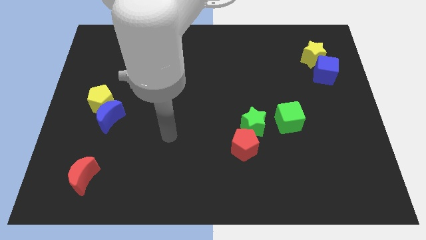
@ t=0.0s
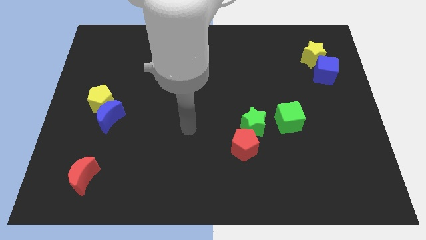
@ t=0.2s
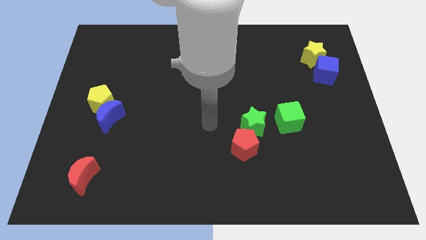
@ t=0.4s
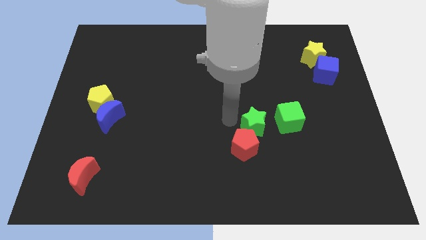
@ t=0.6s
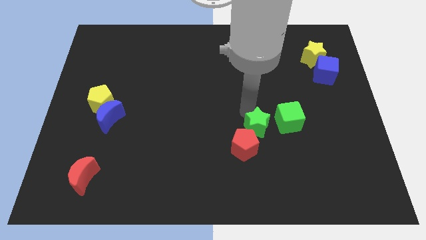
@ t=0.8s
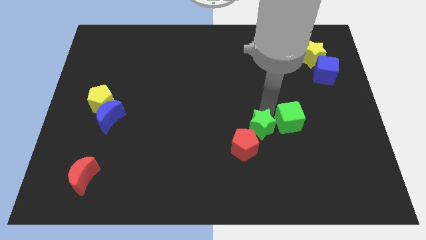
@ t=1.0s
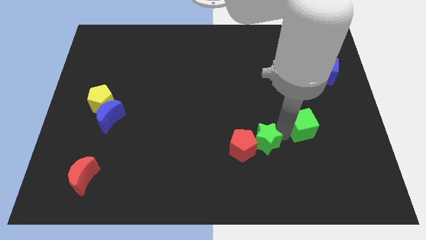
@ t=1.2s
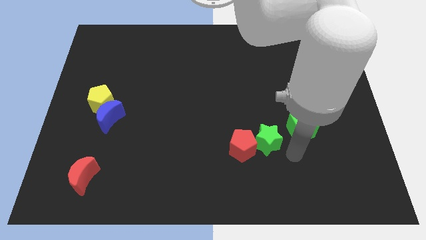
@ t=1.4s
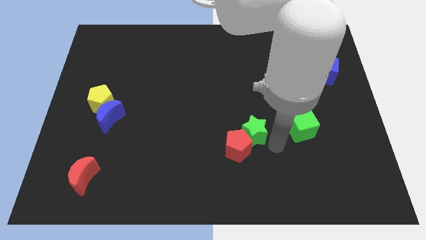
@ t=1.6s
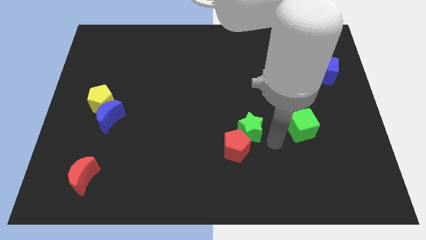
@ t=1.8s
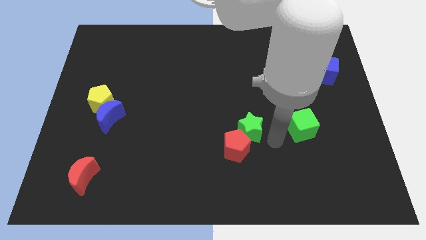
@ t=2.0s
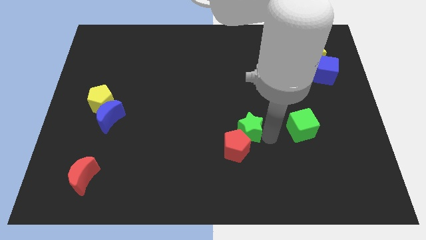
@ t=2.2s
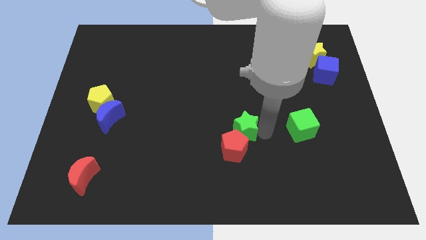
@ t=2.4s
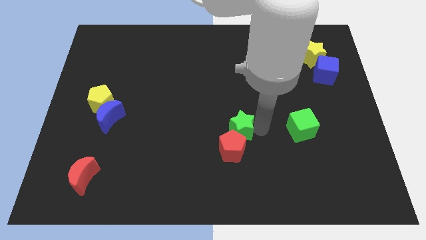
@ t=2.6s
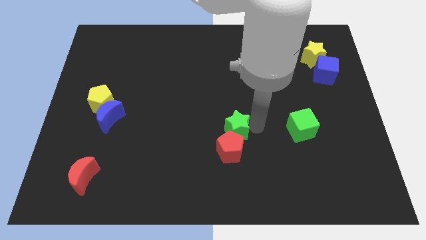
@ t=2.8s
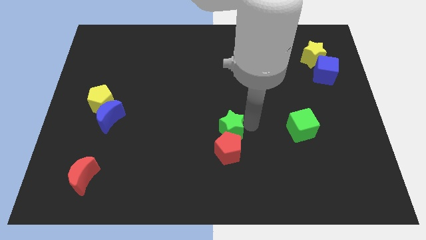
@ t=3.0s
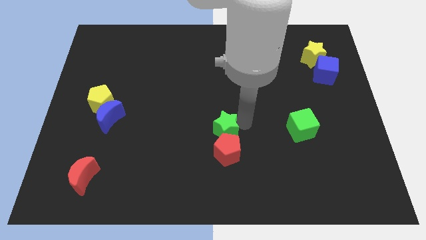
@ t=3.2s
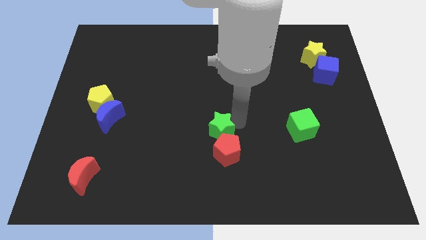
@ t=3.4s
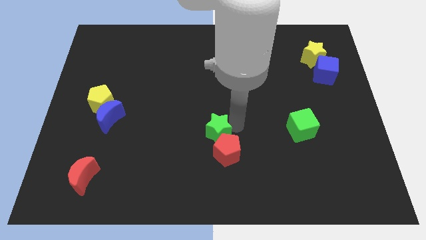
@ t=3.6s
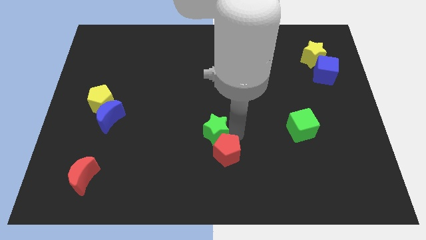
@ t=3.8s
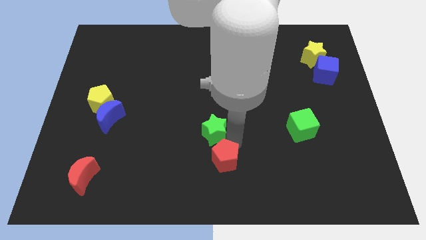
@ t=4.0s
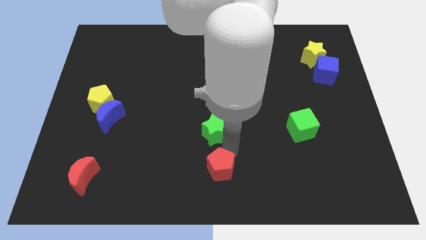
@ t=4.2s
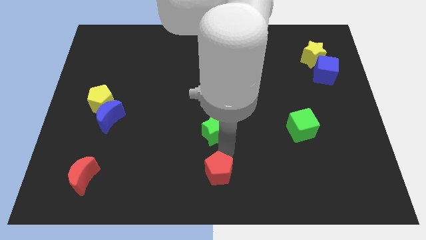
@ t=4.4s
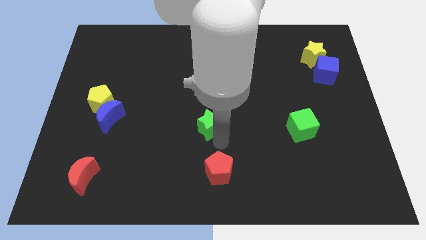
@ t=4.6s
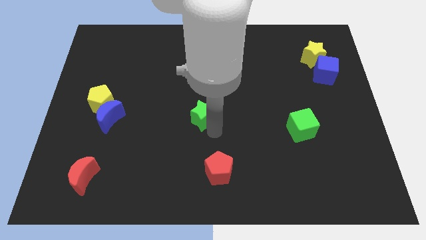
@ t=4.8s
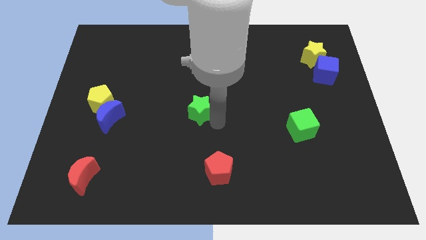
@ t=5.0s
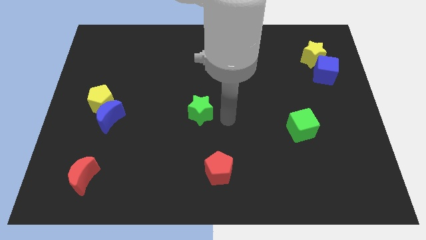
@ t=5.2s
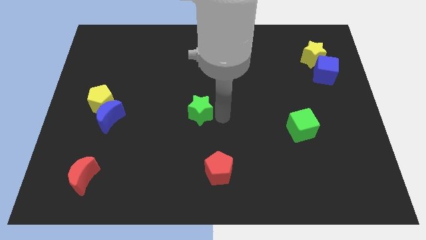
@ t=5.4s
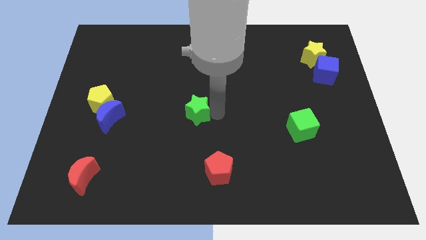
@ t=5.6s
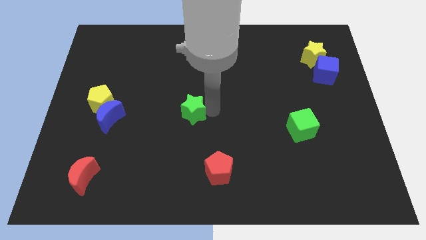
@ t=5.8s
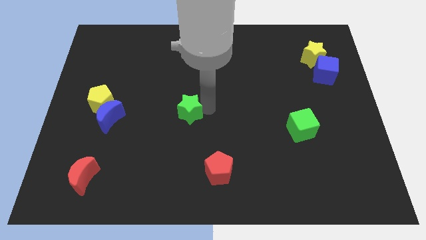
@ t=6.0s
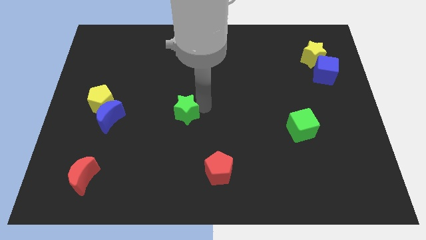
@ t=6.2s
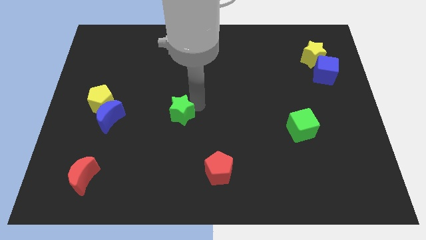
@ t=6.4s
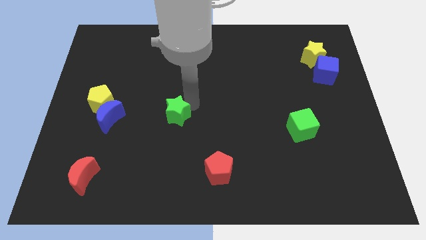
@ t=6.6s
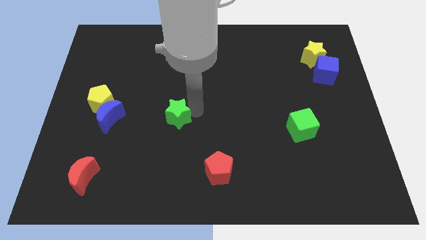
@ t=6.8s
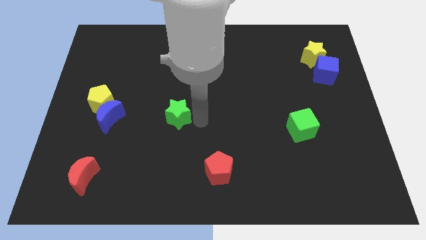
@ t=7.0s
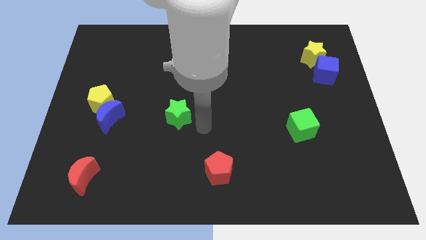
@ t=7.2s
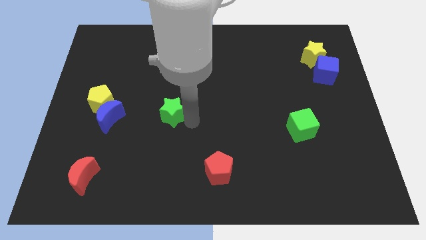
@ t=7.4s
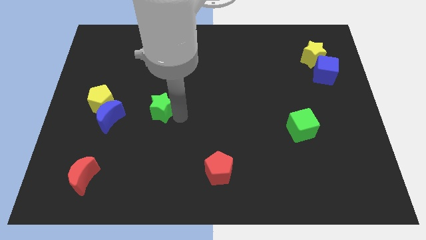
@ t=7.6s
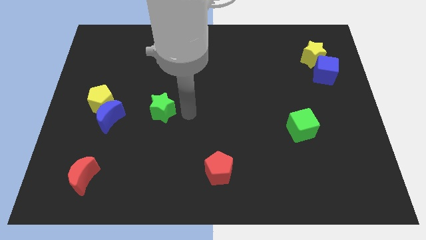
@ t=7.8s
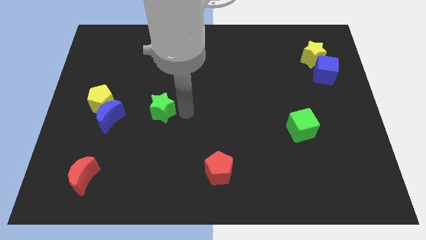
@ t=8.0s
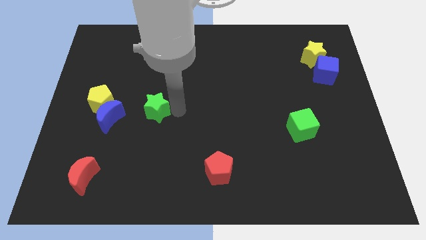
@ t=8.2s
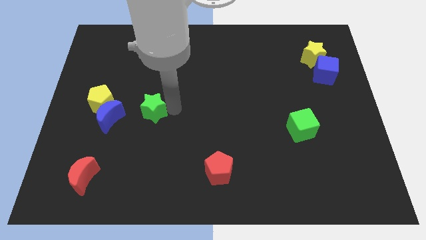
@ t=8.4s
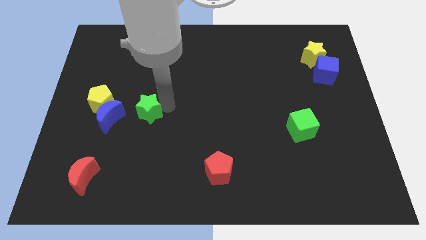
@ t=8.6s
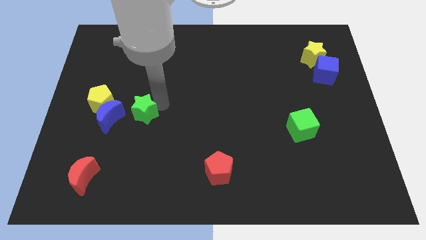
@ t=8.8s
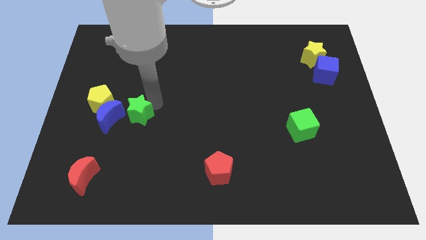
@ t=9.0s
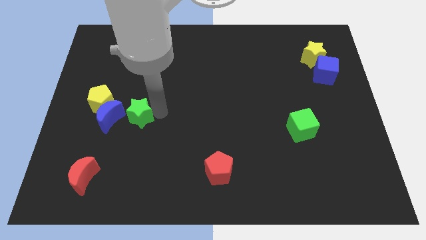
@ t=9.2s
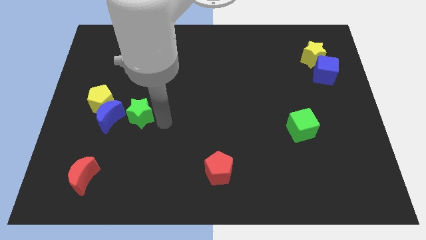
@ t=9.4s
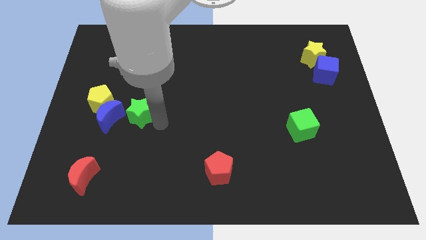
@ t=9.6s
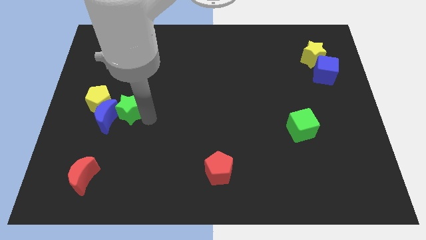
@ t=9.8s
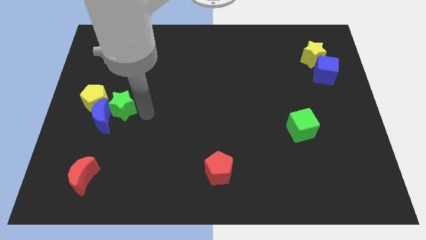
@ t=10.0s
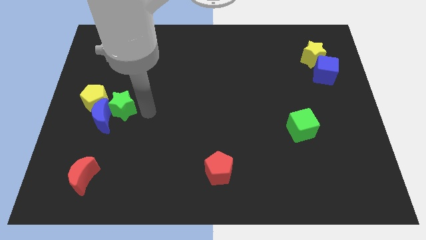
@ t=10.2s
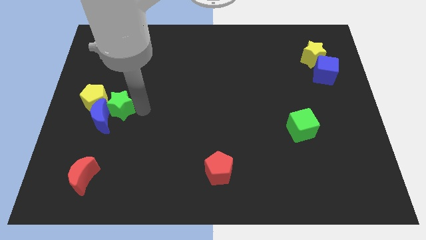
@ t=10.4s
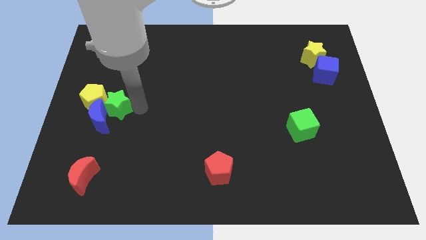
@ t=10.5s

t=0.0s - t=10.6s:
slide the green star close to the yellow pentagon

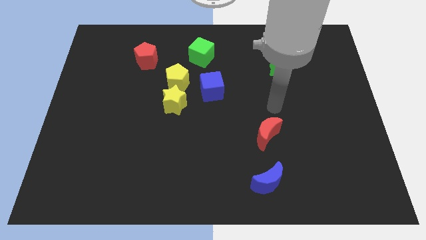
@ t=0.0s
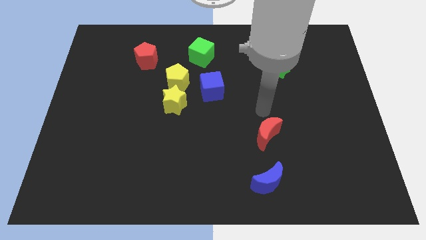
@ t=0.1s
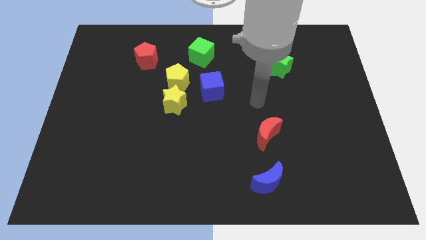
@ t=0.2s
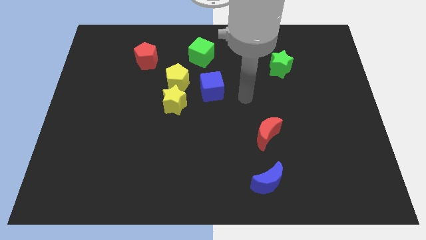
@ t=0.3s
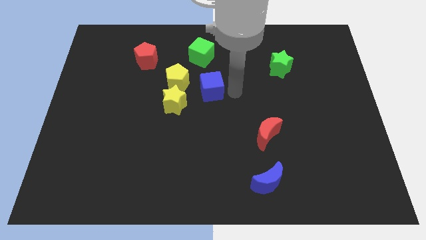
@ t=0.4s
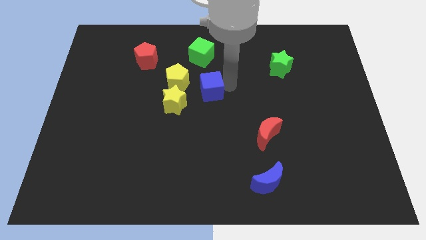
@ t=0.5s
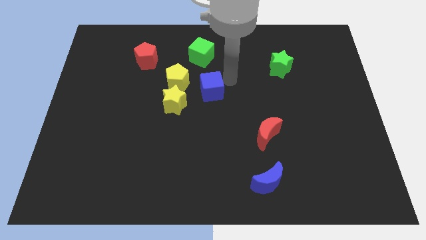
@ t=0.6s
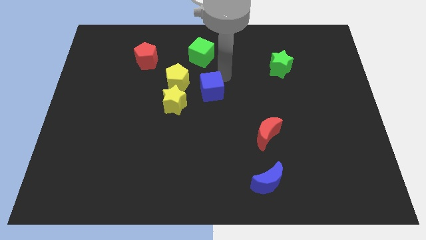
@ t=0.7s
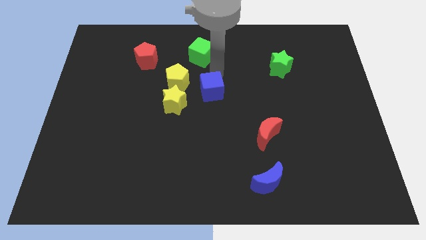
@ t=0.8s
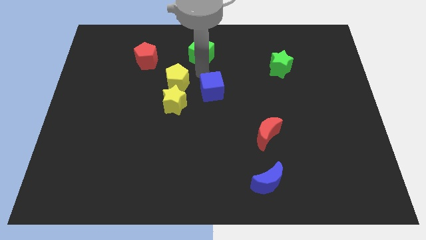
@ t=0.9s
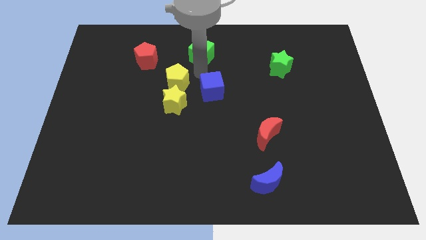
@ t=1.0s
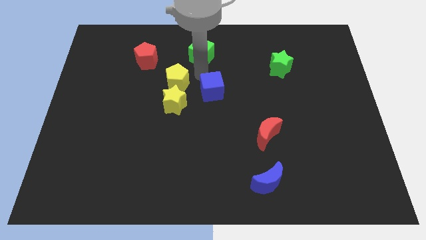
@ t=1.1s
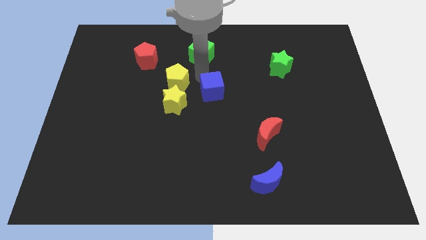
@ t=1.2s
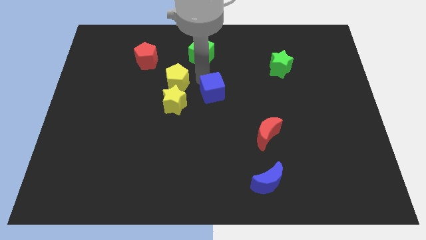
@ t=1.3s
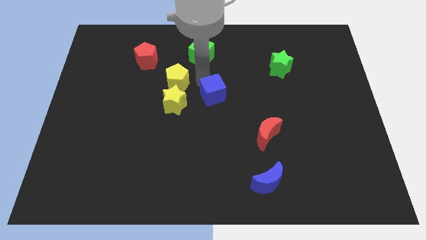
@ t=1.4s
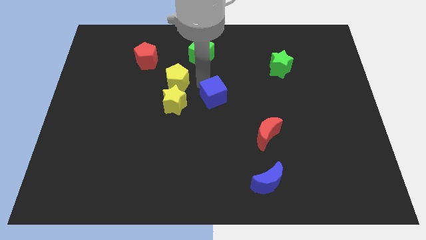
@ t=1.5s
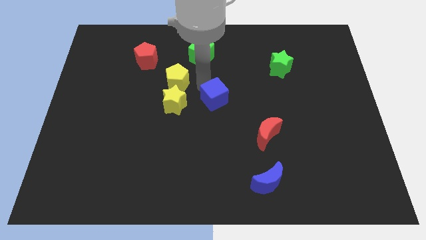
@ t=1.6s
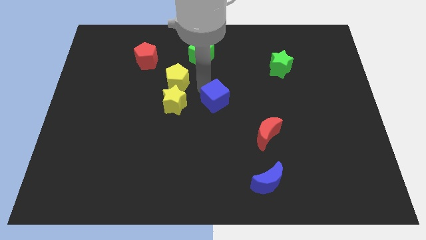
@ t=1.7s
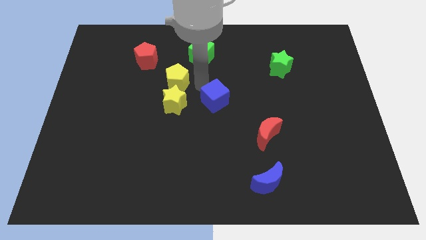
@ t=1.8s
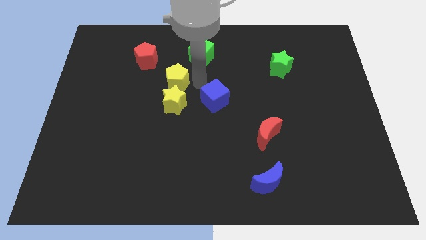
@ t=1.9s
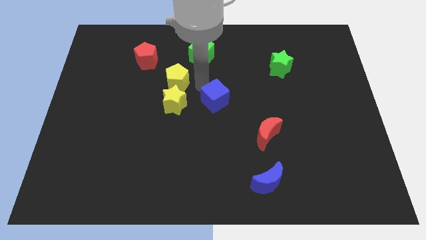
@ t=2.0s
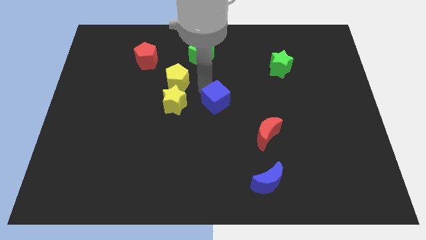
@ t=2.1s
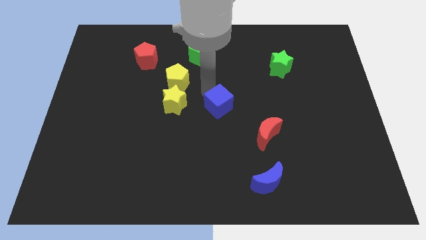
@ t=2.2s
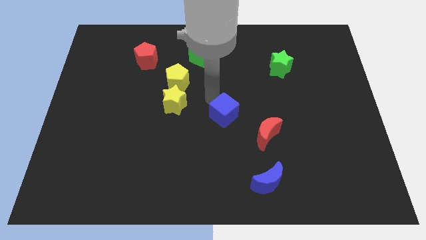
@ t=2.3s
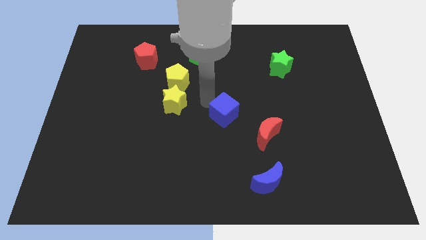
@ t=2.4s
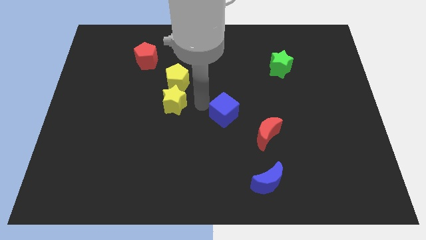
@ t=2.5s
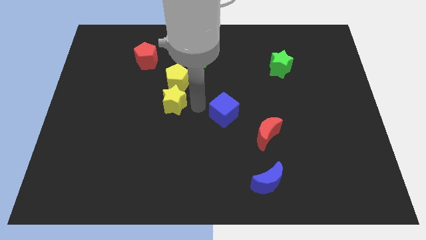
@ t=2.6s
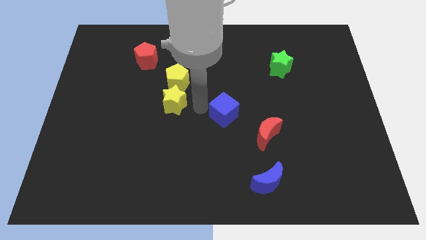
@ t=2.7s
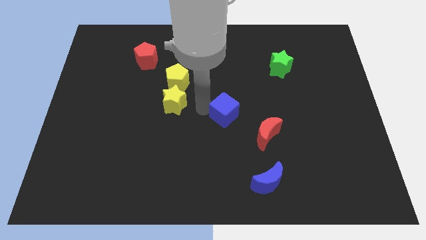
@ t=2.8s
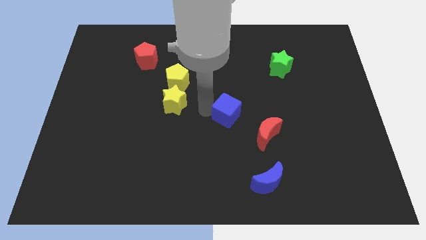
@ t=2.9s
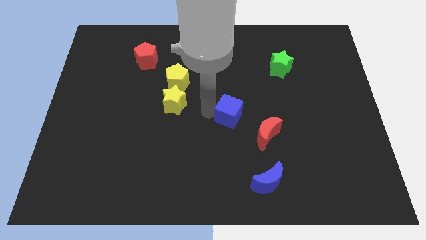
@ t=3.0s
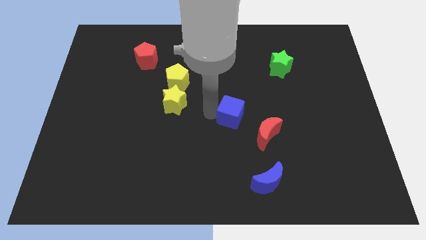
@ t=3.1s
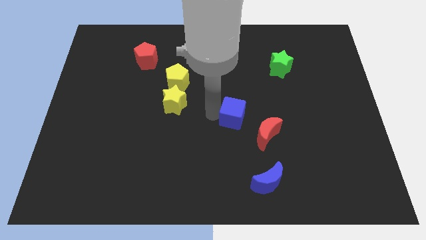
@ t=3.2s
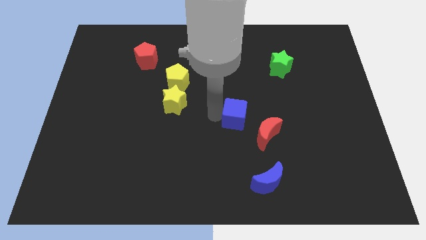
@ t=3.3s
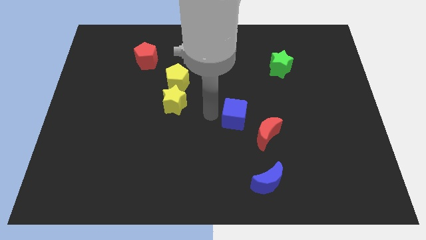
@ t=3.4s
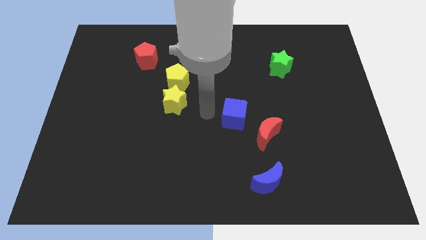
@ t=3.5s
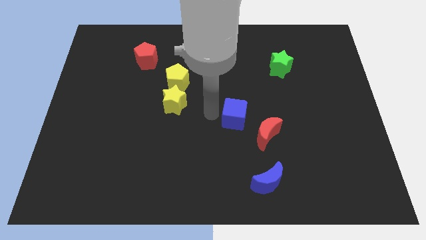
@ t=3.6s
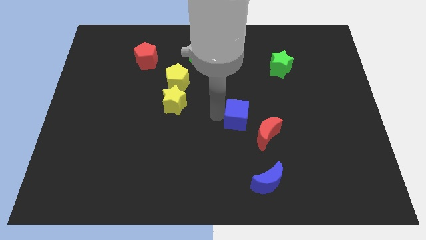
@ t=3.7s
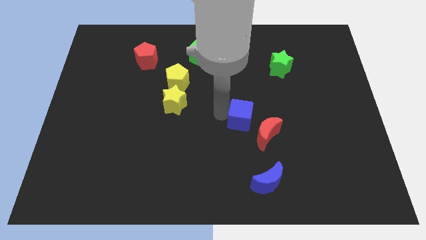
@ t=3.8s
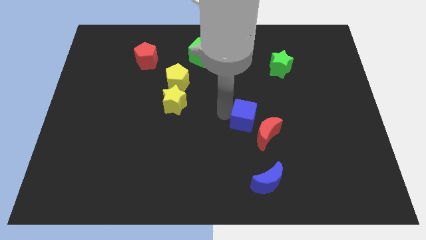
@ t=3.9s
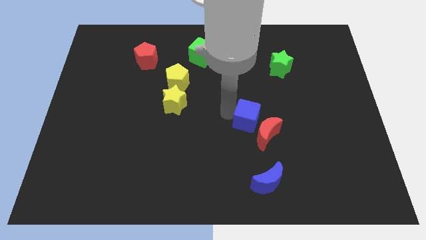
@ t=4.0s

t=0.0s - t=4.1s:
put the blue cube next to the red moon
